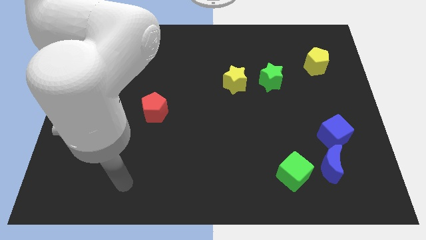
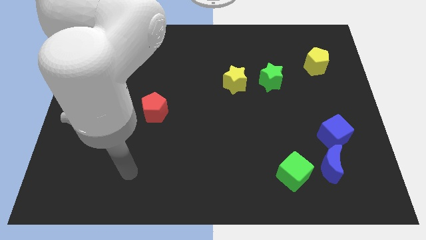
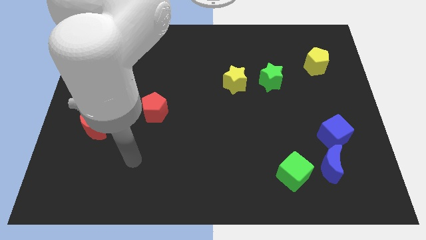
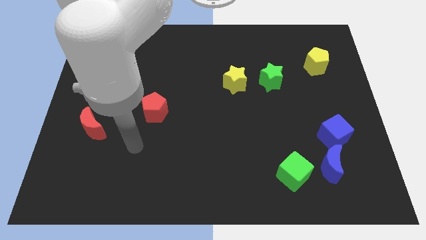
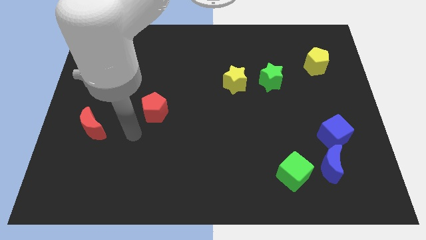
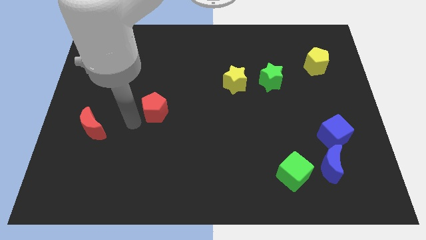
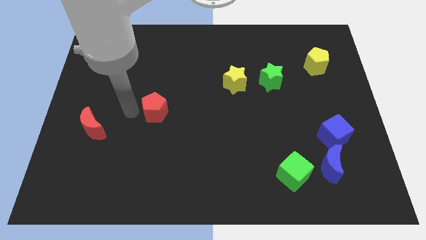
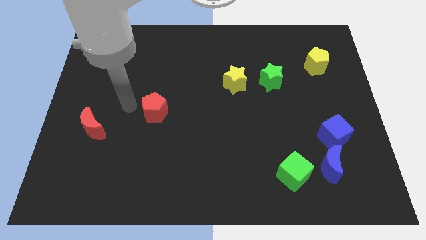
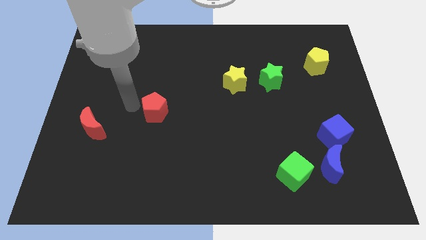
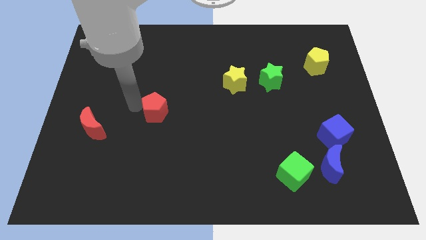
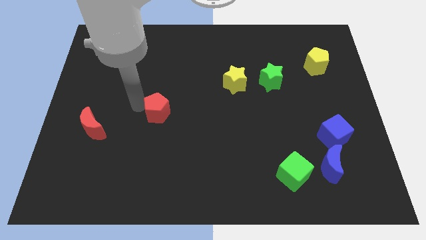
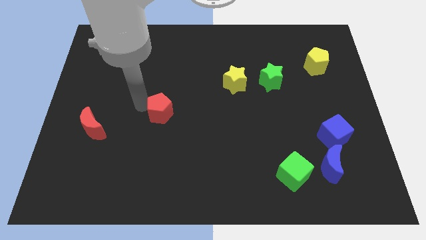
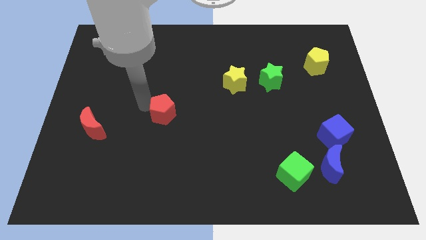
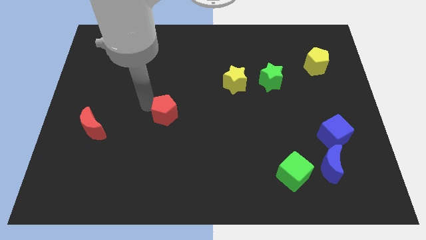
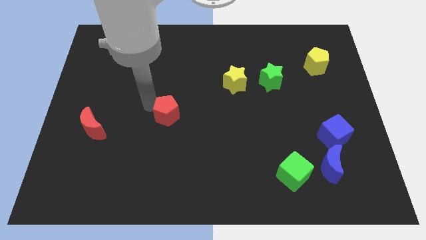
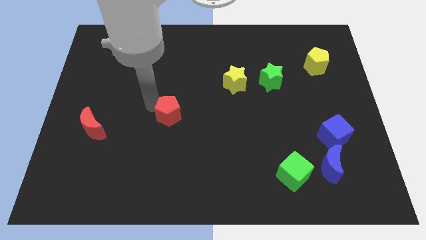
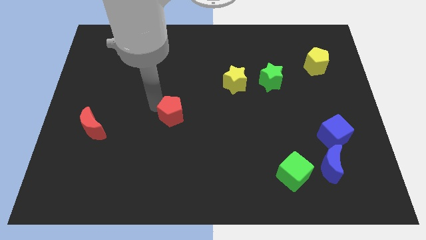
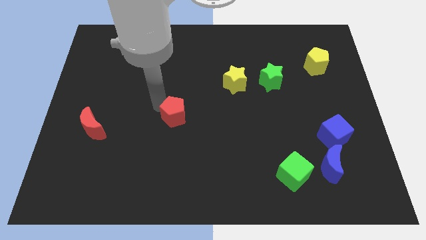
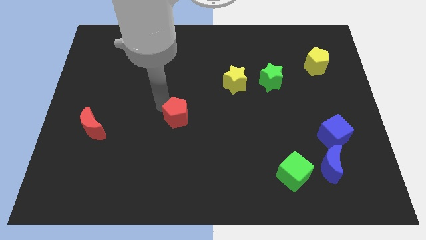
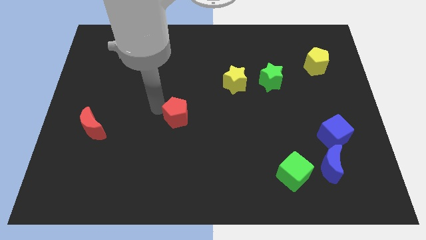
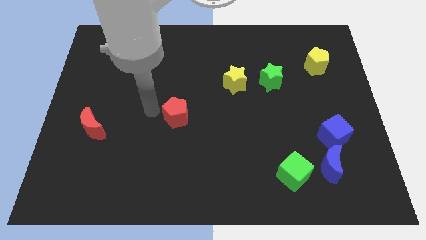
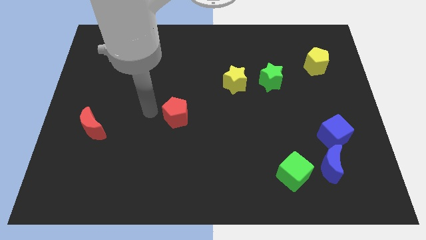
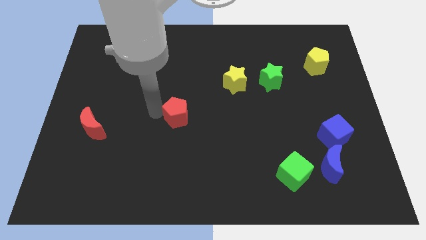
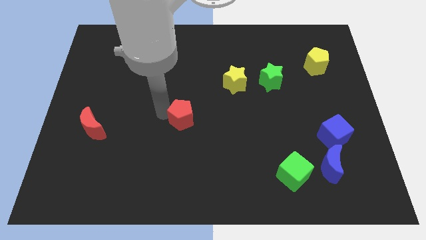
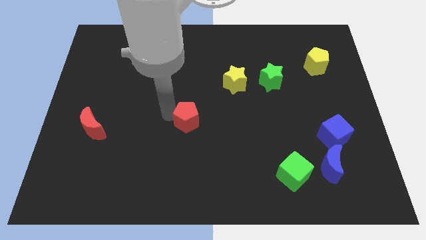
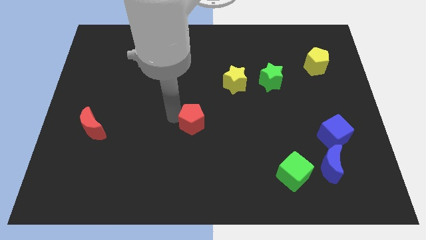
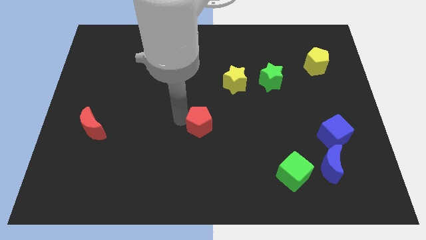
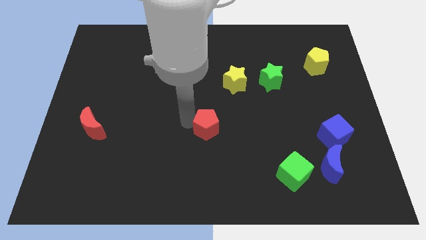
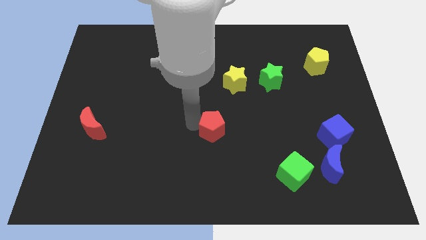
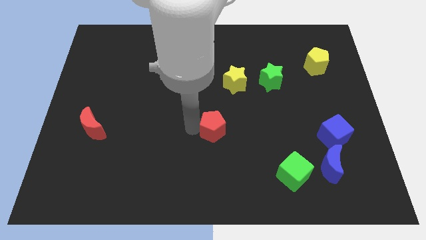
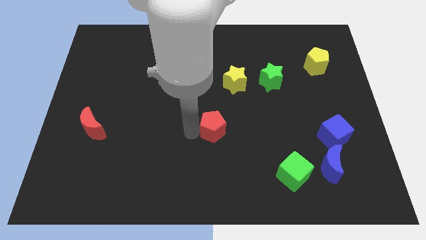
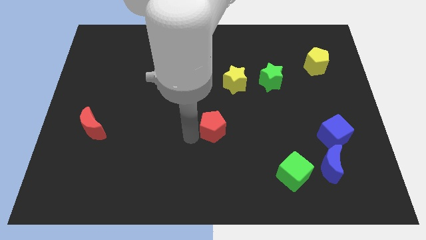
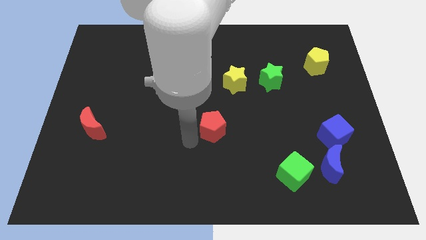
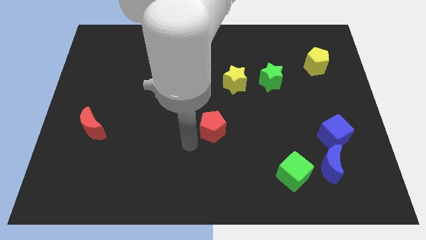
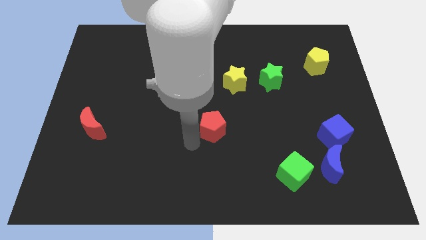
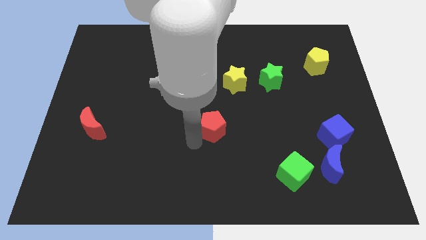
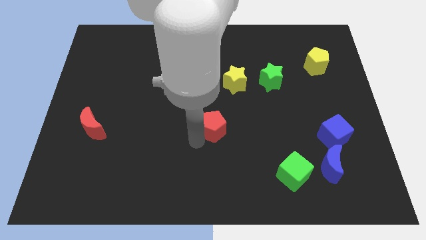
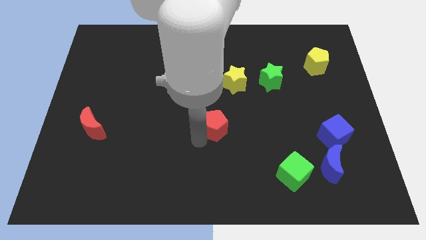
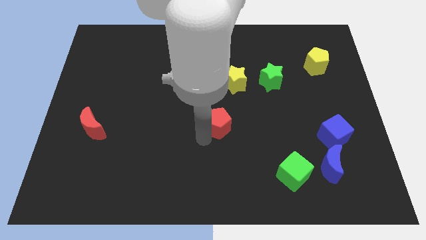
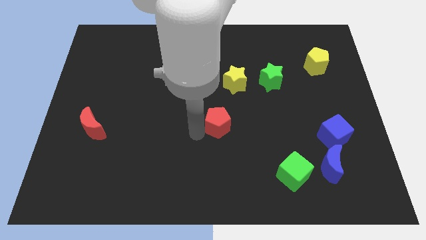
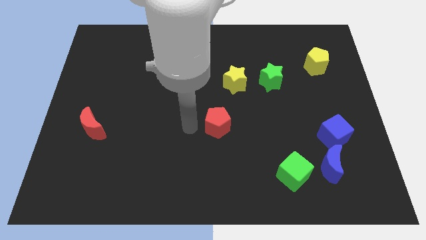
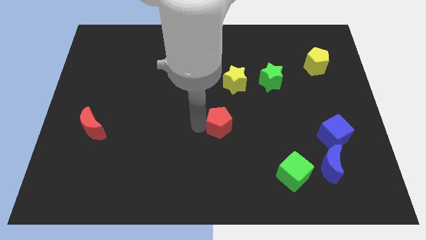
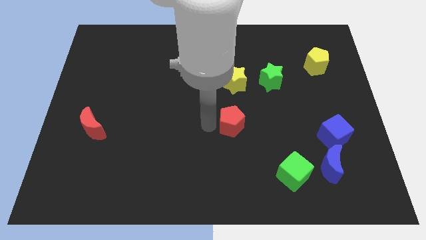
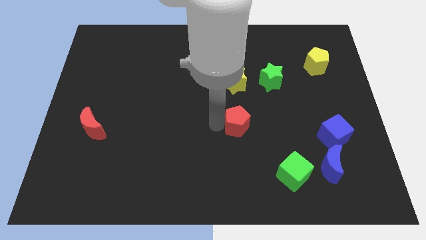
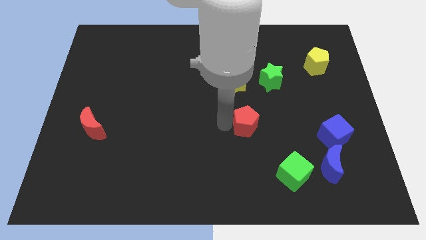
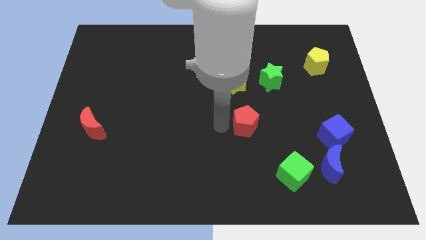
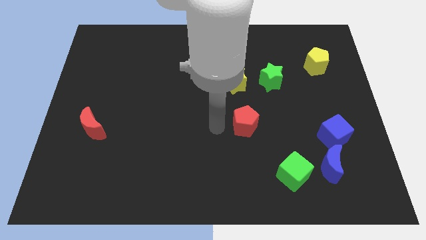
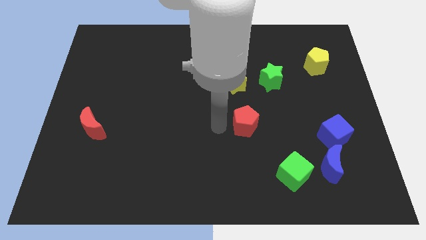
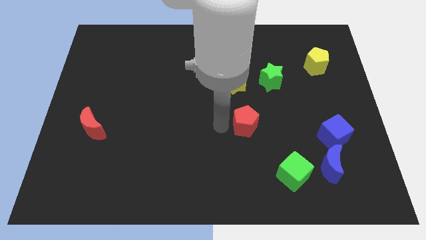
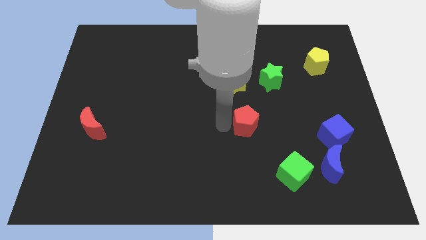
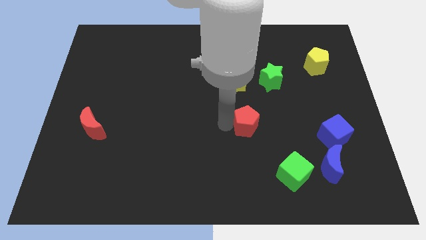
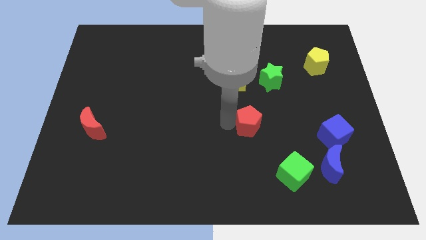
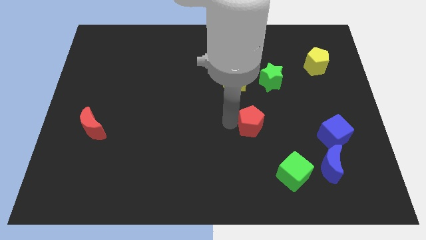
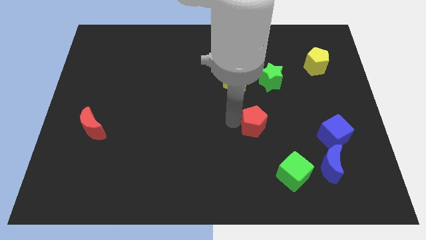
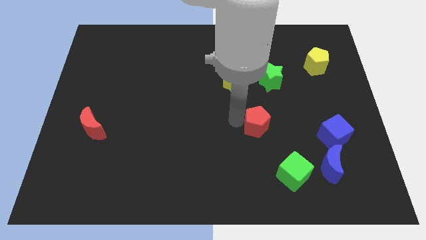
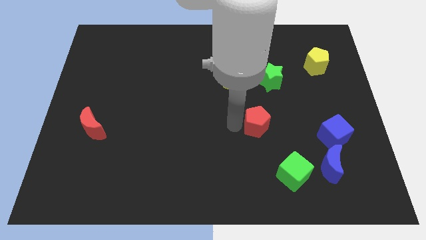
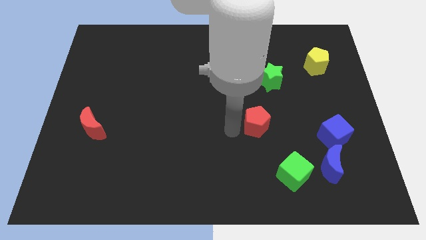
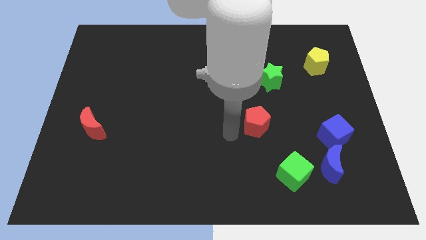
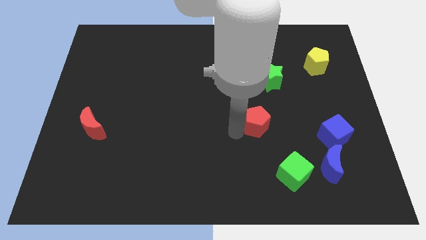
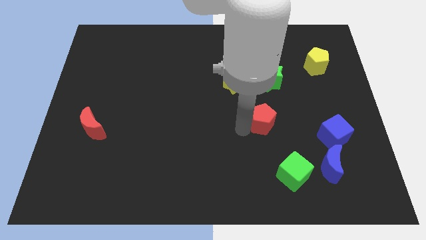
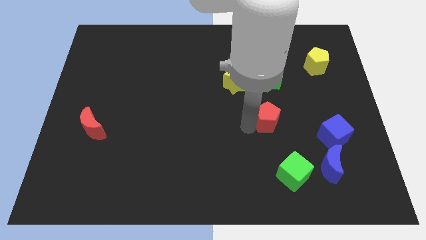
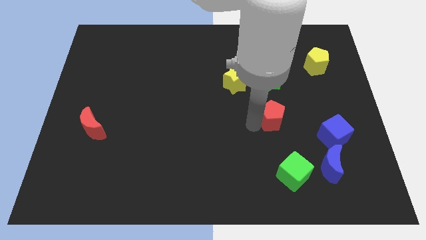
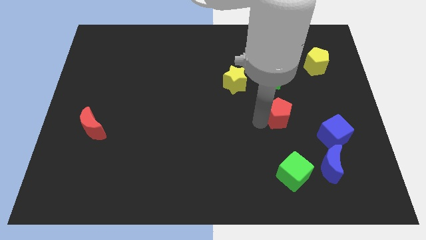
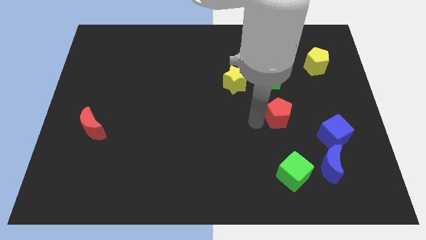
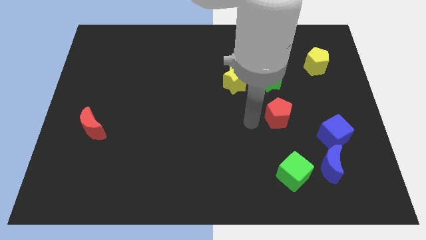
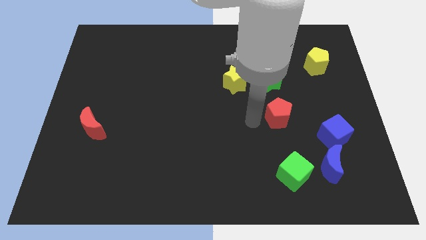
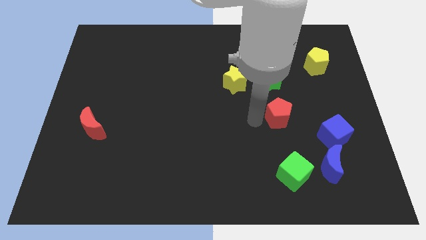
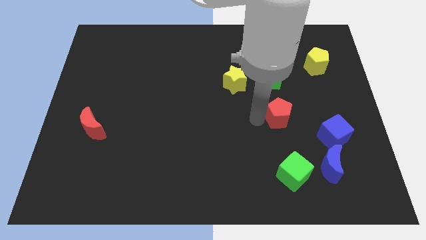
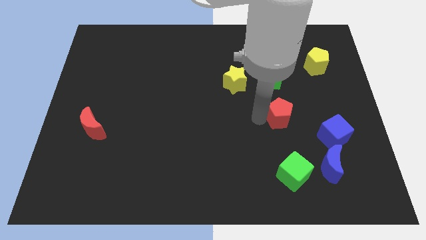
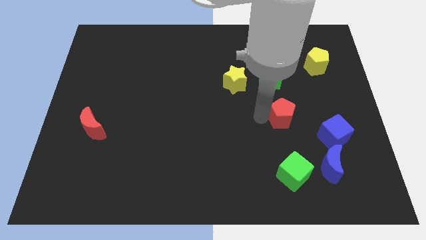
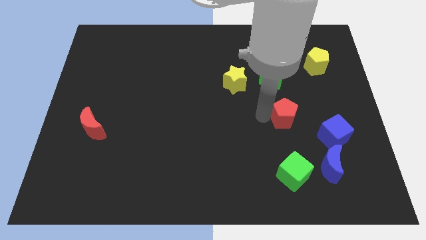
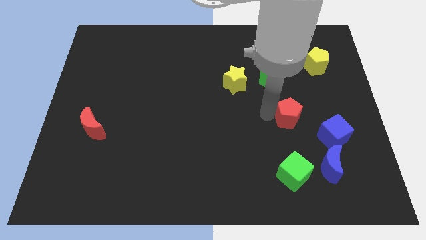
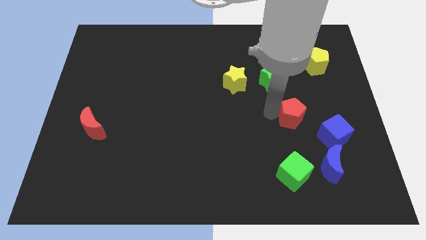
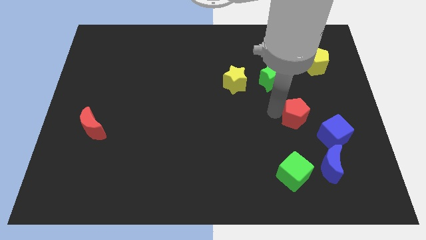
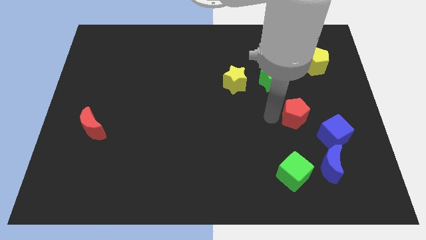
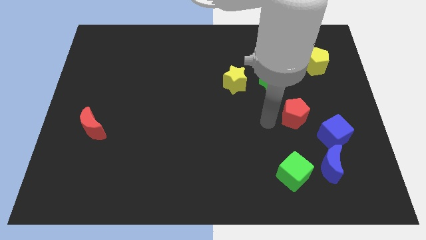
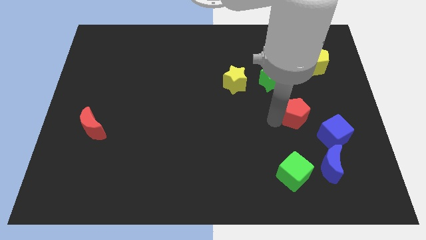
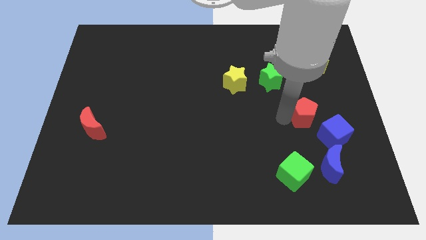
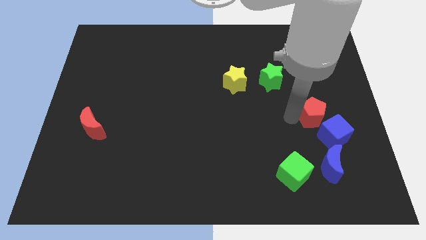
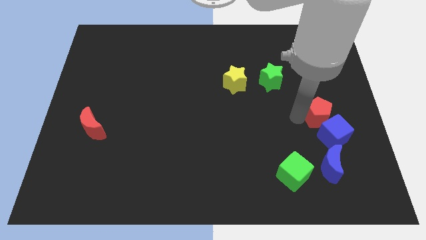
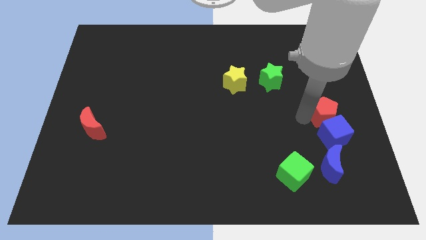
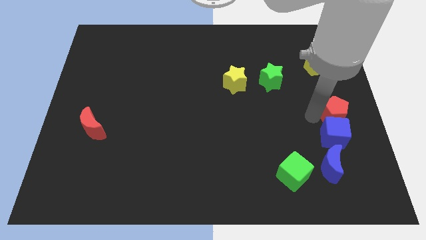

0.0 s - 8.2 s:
slide the red pentagon to the right side of the board
